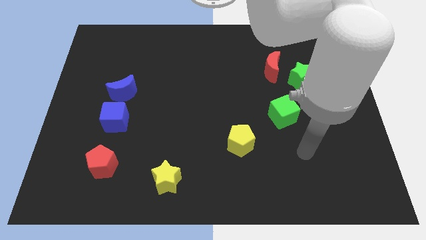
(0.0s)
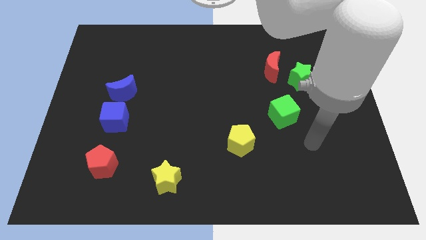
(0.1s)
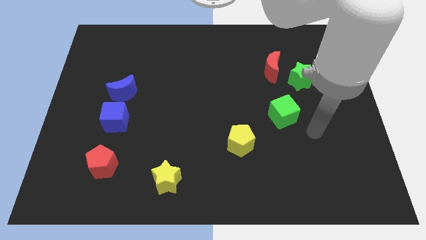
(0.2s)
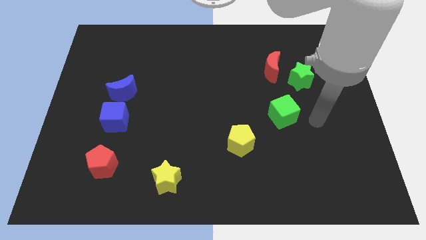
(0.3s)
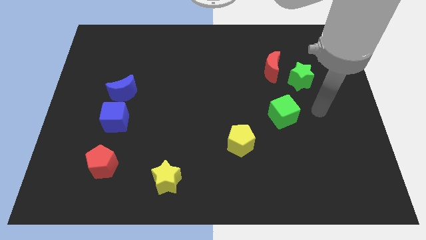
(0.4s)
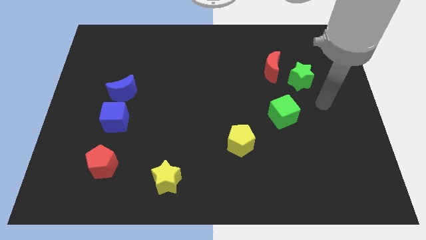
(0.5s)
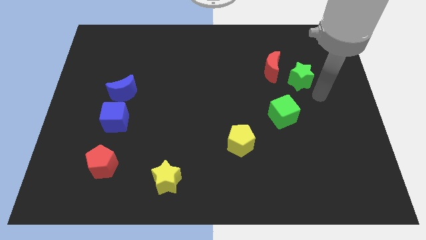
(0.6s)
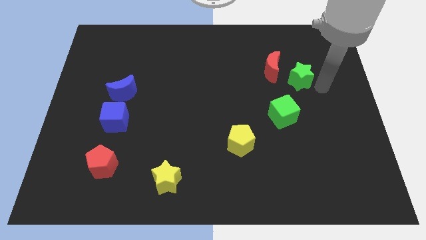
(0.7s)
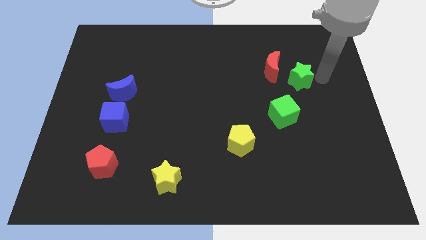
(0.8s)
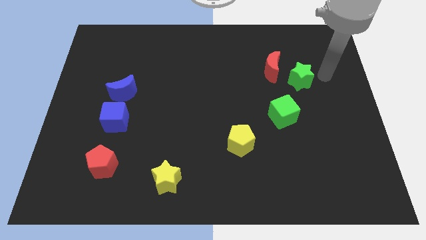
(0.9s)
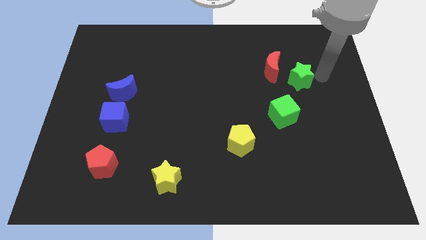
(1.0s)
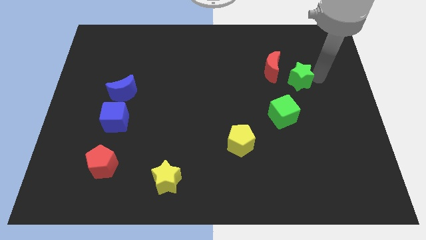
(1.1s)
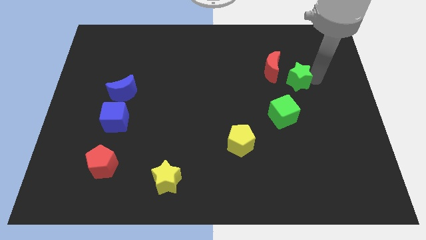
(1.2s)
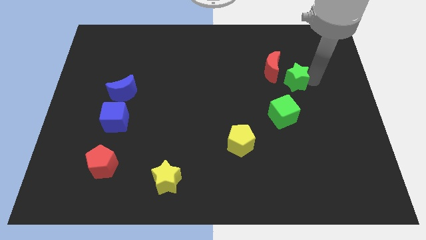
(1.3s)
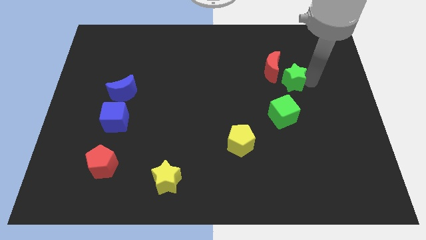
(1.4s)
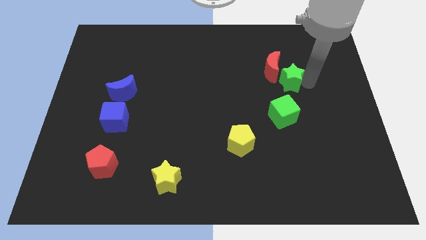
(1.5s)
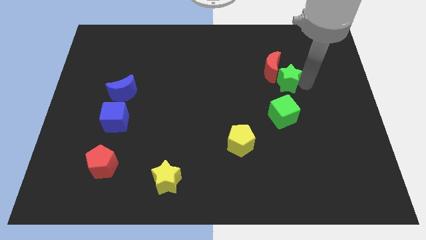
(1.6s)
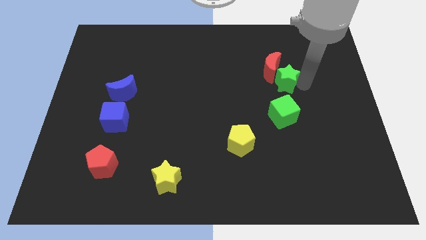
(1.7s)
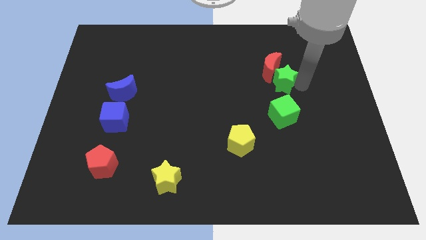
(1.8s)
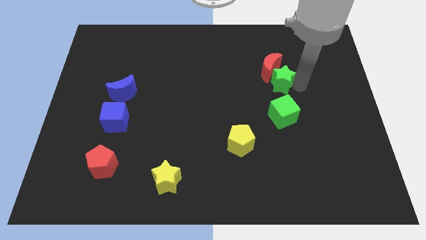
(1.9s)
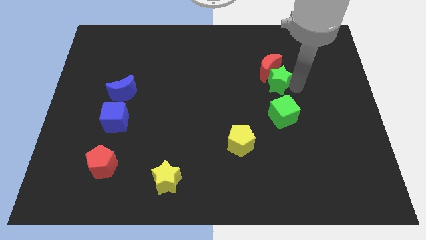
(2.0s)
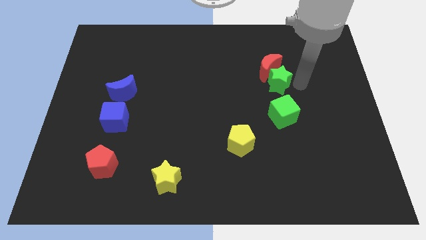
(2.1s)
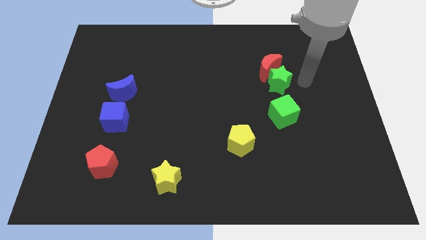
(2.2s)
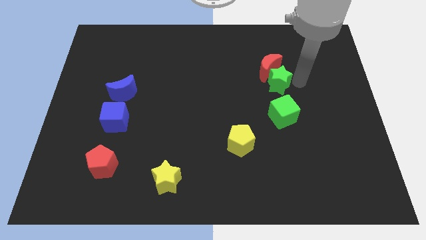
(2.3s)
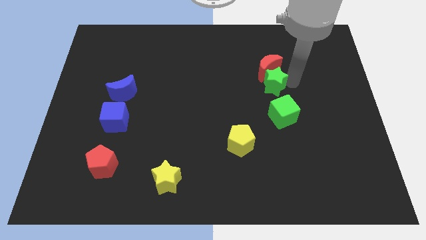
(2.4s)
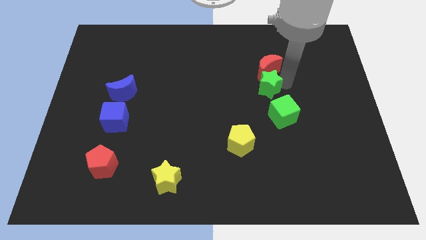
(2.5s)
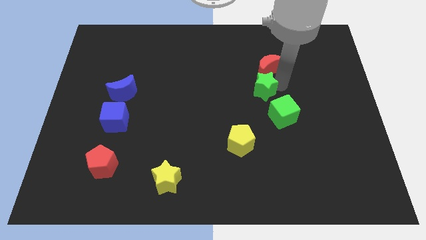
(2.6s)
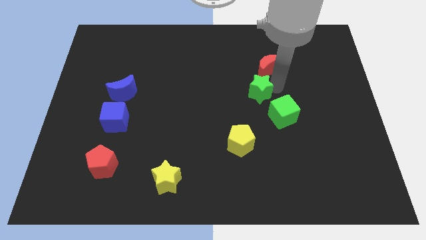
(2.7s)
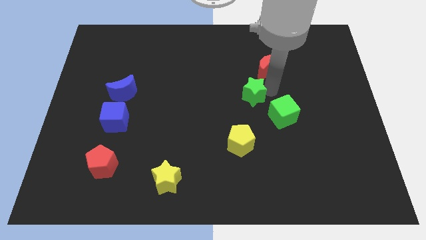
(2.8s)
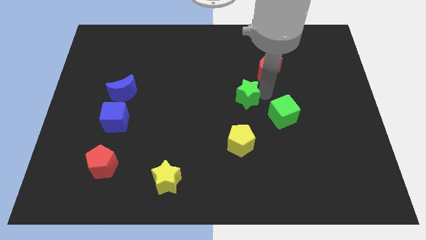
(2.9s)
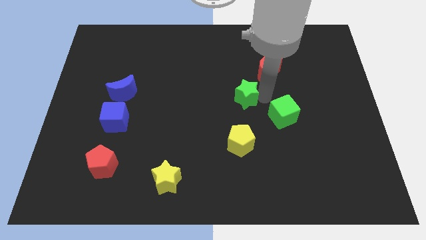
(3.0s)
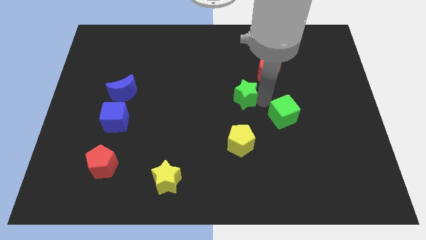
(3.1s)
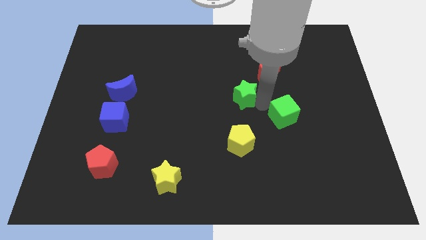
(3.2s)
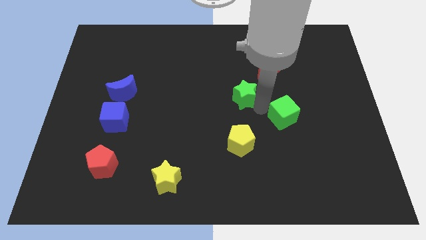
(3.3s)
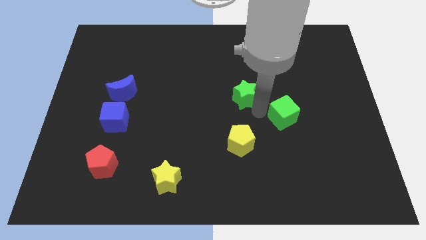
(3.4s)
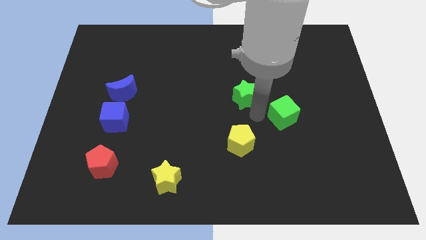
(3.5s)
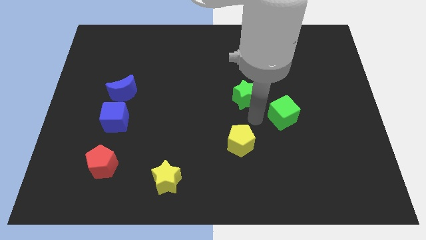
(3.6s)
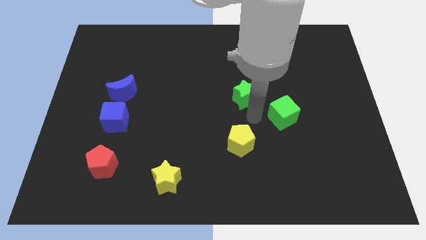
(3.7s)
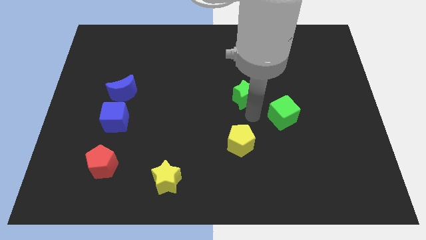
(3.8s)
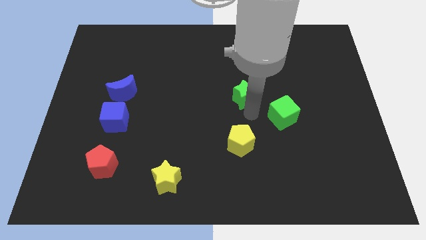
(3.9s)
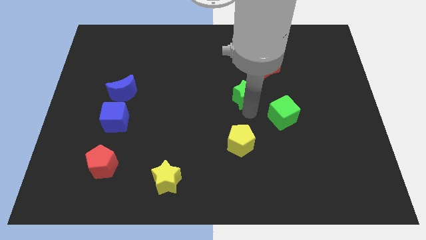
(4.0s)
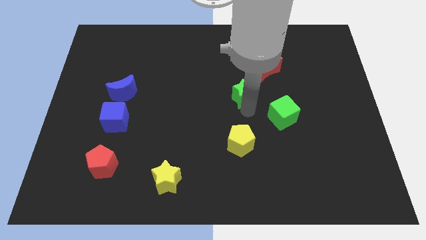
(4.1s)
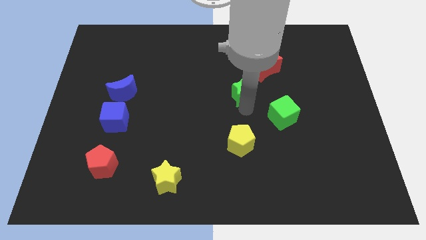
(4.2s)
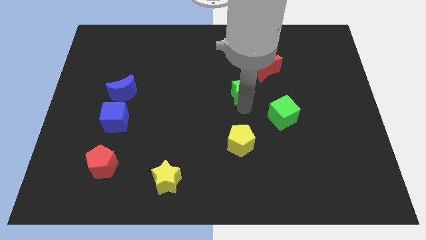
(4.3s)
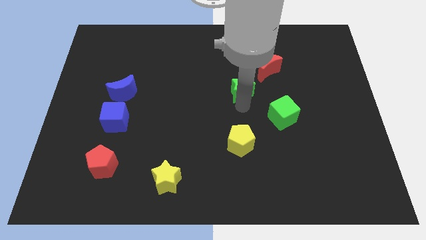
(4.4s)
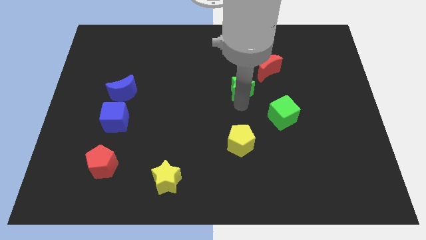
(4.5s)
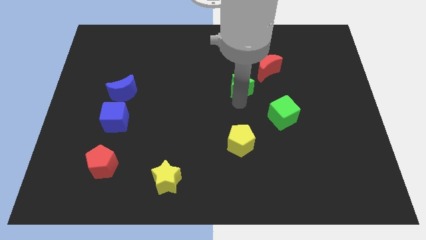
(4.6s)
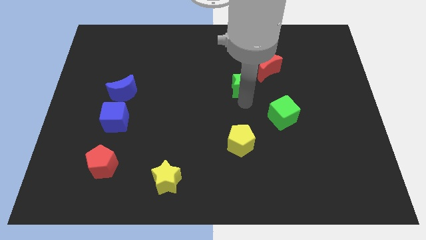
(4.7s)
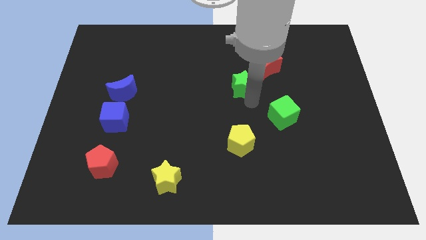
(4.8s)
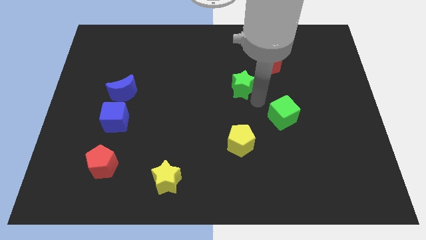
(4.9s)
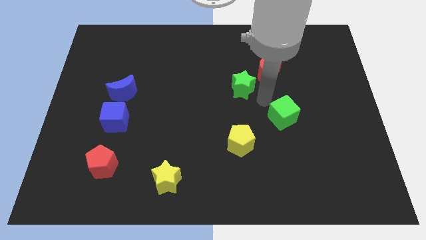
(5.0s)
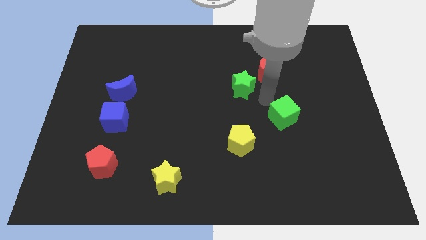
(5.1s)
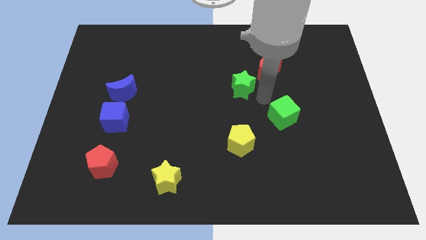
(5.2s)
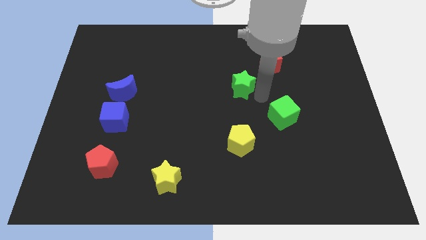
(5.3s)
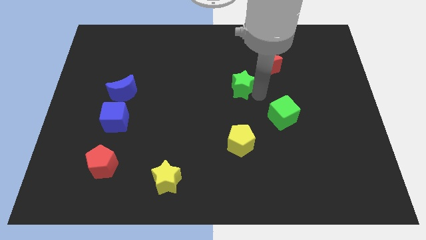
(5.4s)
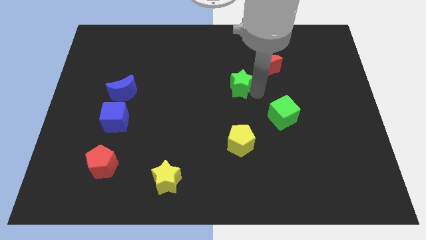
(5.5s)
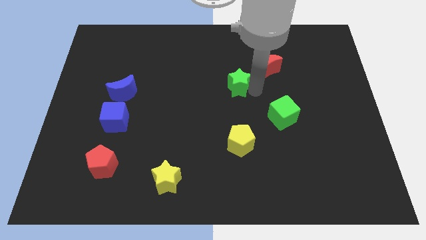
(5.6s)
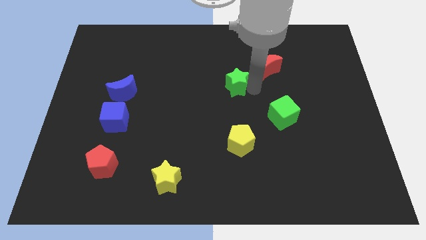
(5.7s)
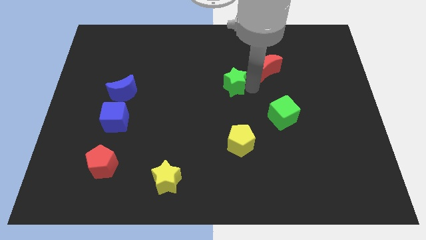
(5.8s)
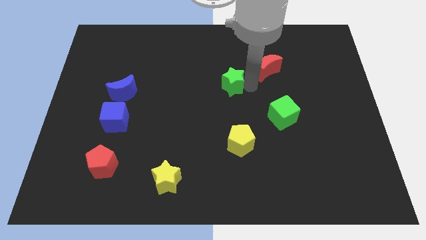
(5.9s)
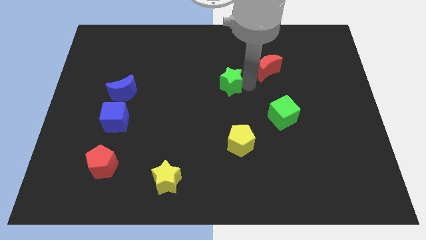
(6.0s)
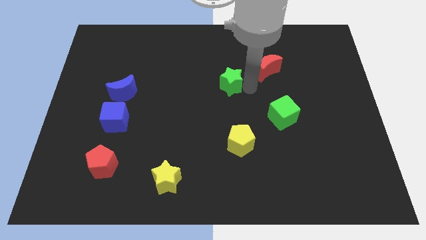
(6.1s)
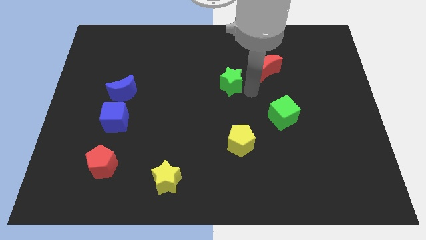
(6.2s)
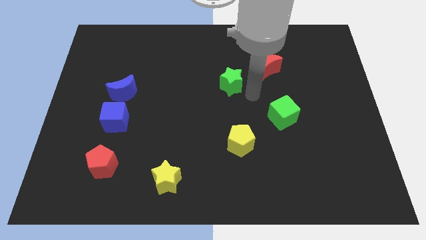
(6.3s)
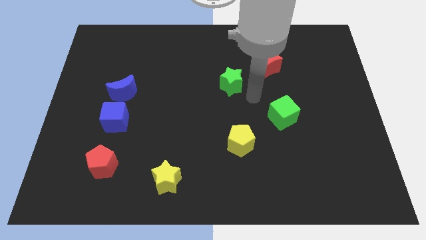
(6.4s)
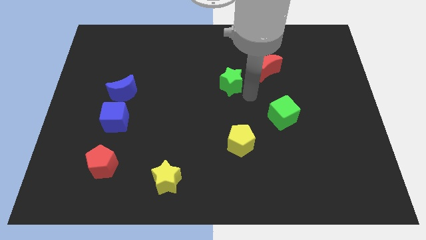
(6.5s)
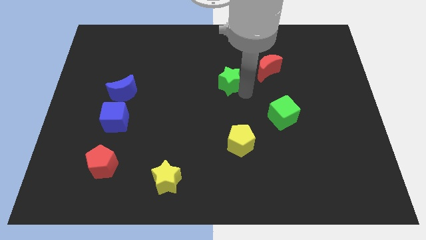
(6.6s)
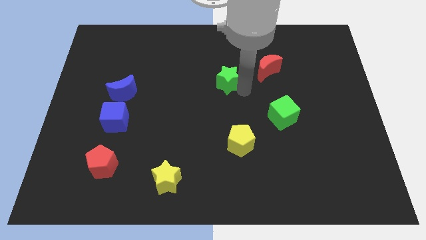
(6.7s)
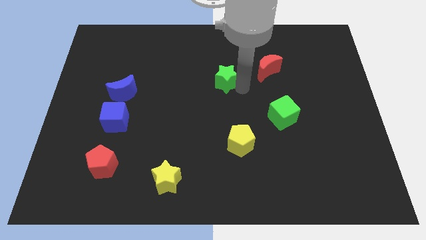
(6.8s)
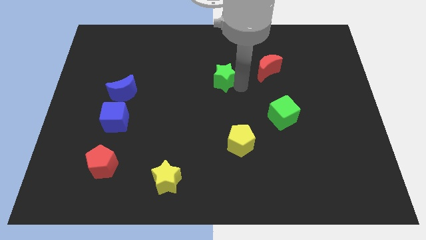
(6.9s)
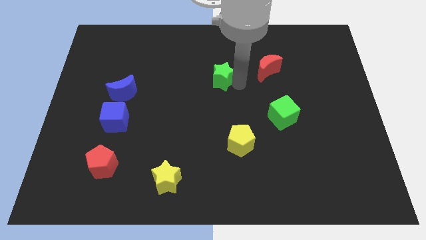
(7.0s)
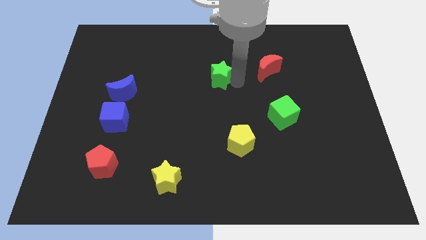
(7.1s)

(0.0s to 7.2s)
move the green star to the left

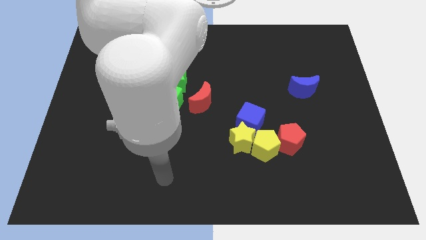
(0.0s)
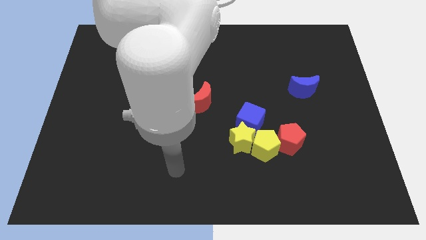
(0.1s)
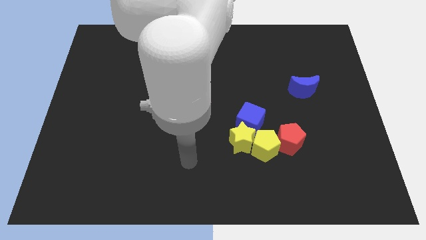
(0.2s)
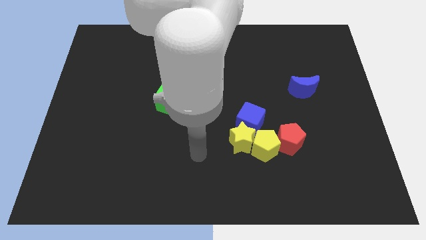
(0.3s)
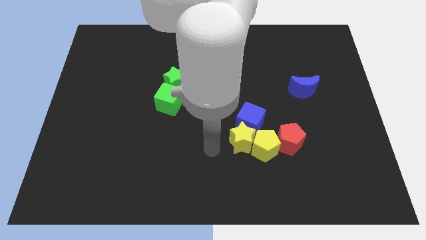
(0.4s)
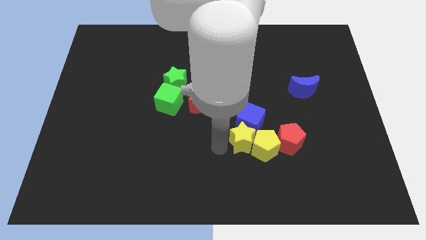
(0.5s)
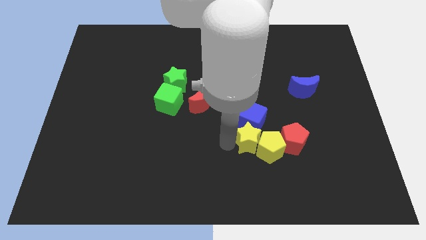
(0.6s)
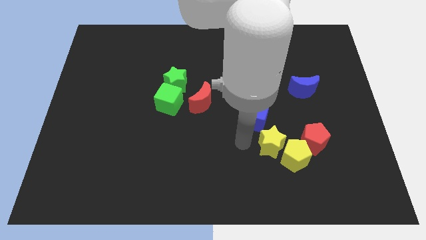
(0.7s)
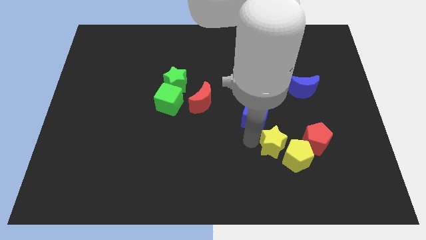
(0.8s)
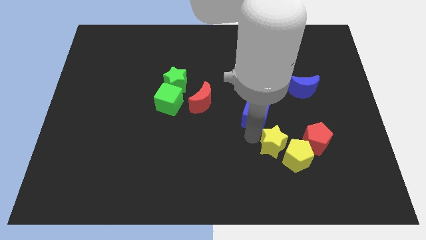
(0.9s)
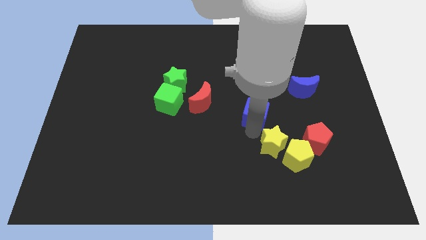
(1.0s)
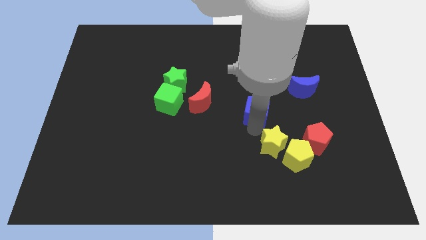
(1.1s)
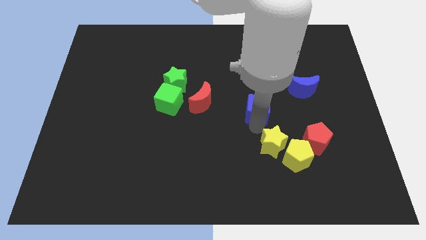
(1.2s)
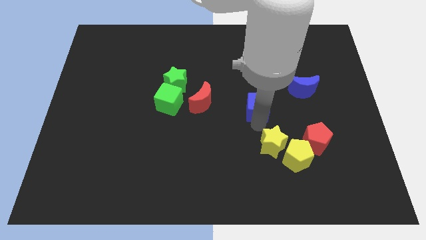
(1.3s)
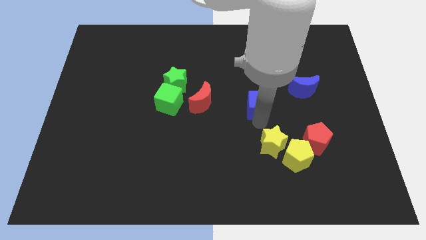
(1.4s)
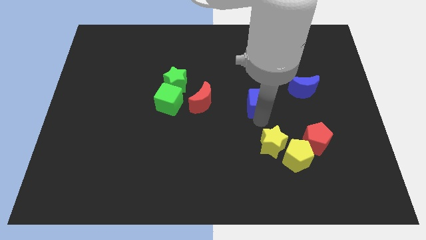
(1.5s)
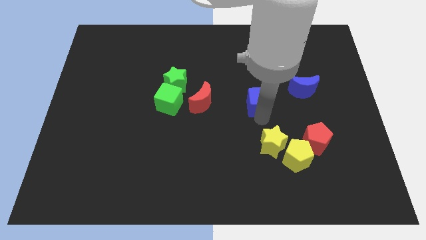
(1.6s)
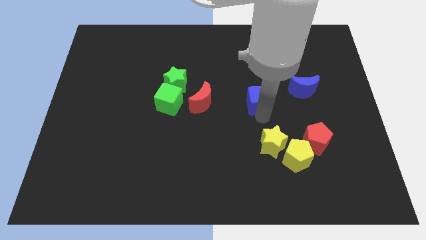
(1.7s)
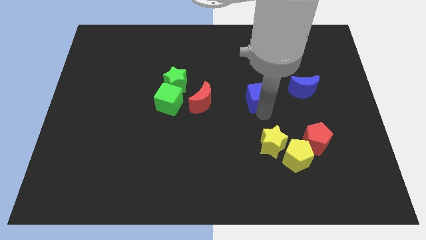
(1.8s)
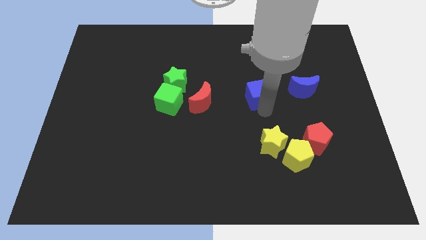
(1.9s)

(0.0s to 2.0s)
push the blue cube a bit up
